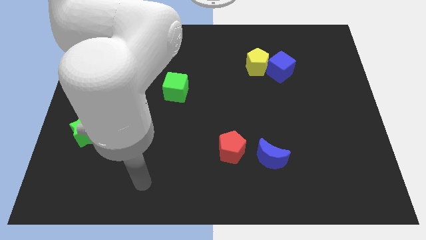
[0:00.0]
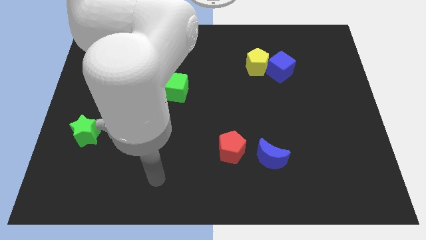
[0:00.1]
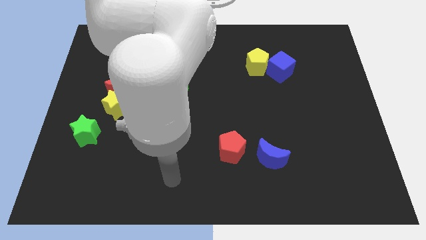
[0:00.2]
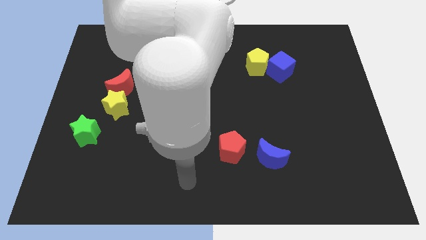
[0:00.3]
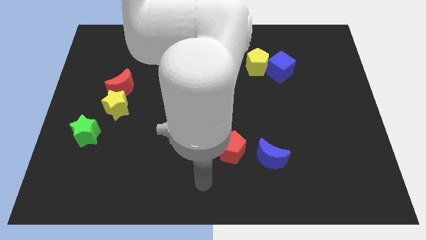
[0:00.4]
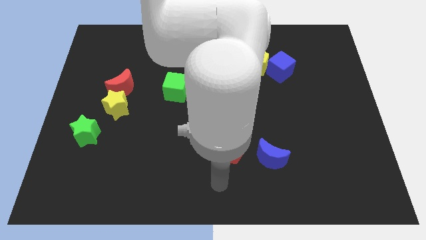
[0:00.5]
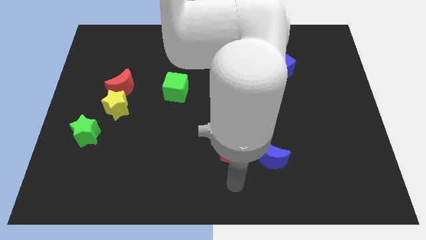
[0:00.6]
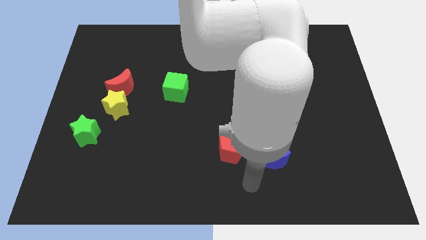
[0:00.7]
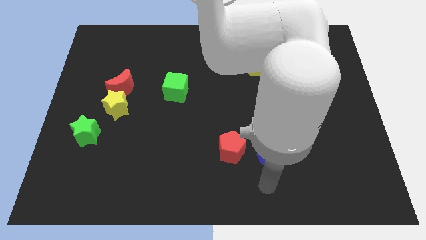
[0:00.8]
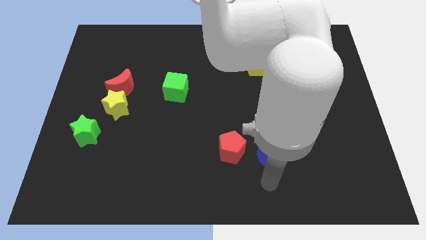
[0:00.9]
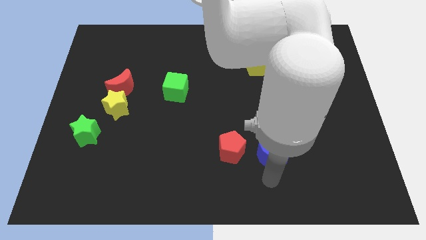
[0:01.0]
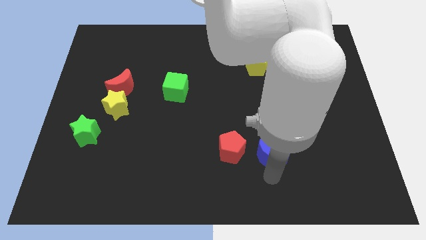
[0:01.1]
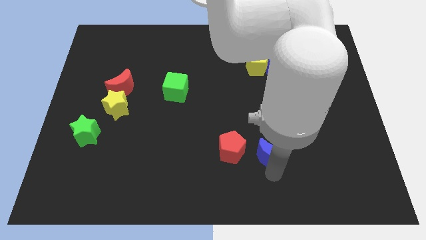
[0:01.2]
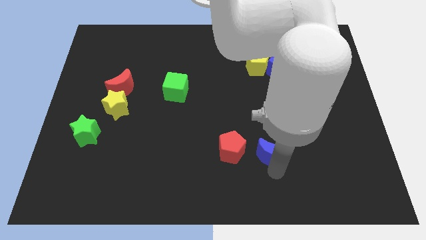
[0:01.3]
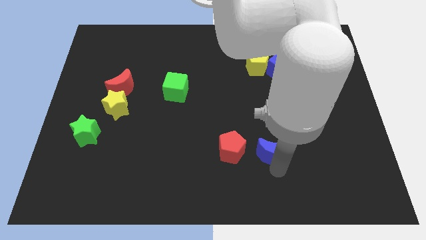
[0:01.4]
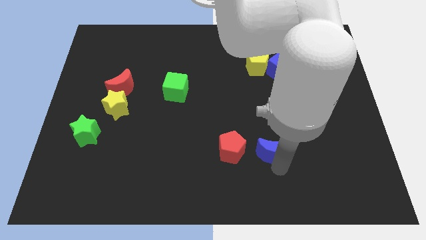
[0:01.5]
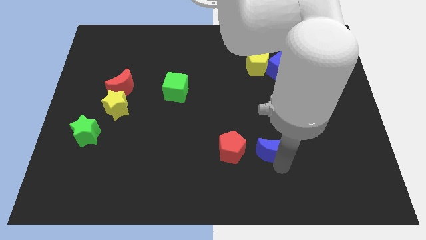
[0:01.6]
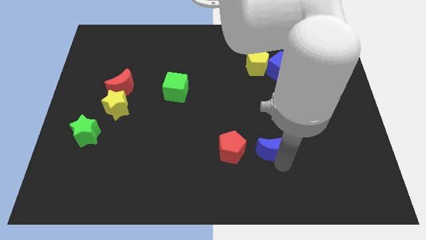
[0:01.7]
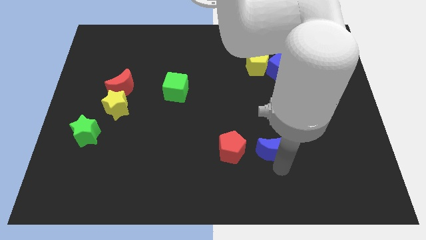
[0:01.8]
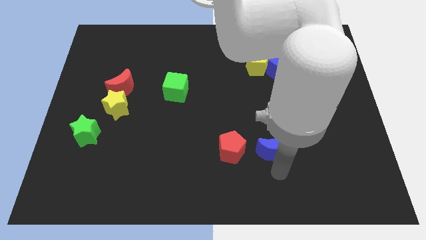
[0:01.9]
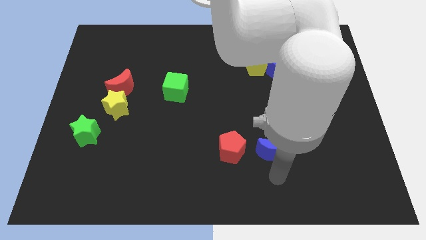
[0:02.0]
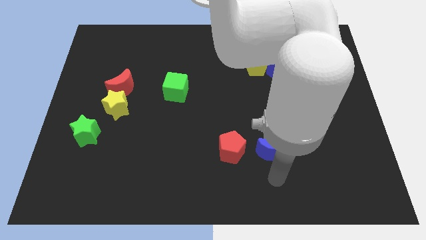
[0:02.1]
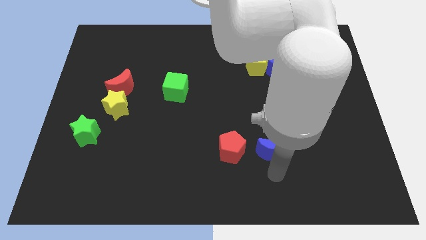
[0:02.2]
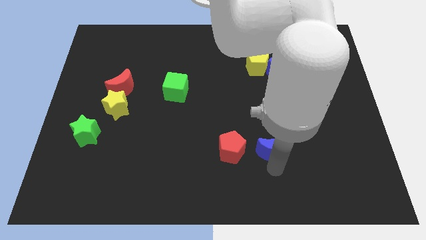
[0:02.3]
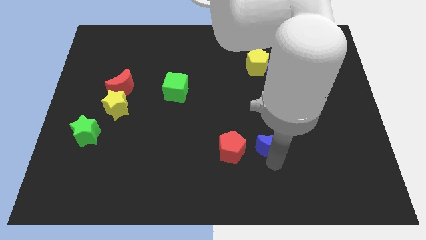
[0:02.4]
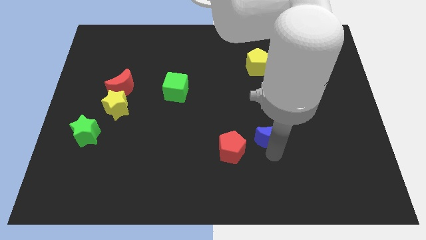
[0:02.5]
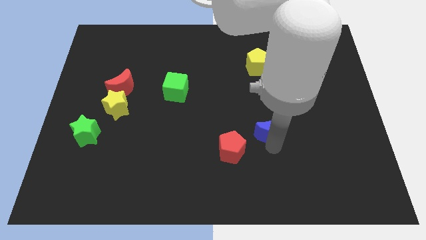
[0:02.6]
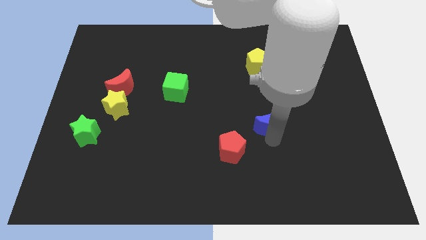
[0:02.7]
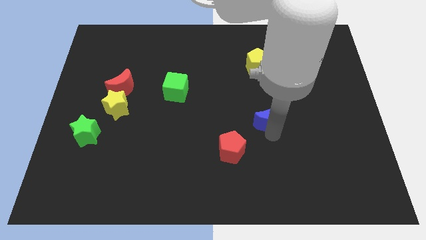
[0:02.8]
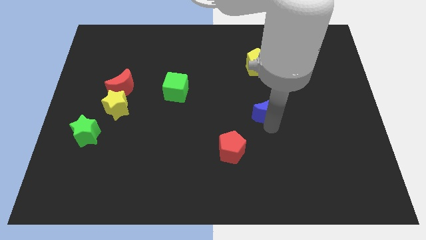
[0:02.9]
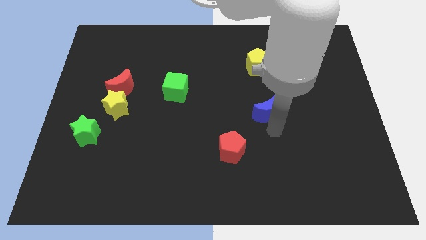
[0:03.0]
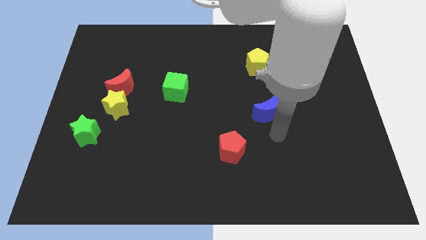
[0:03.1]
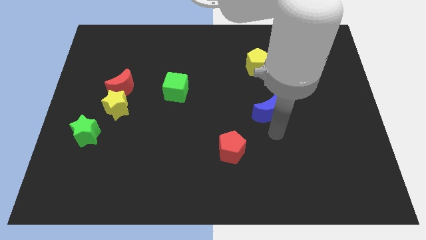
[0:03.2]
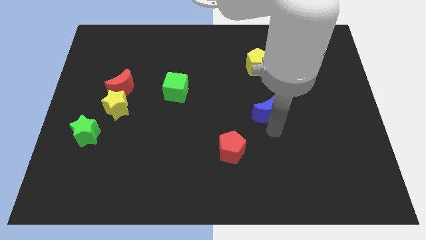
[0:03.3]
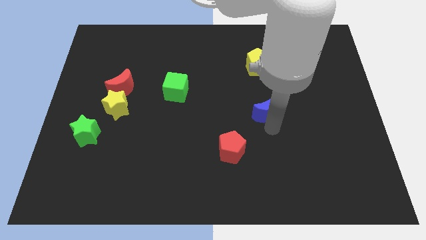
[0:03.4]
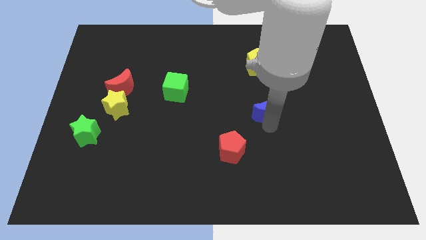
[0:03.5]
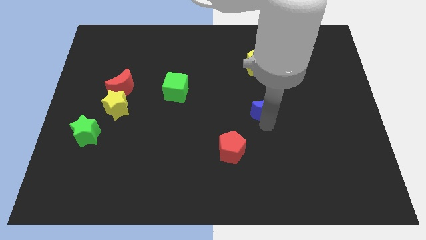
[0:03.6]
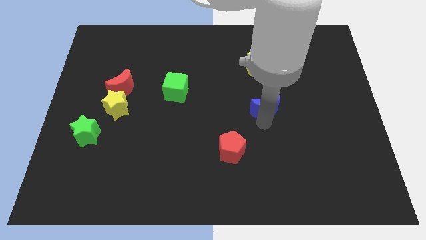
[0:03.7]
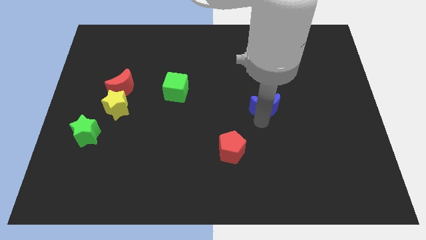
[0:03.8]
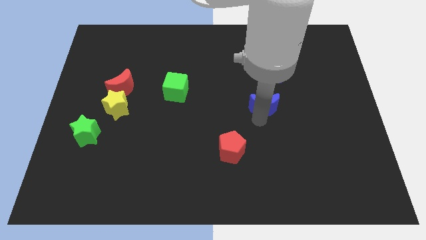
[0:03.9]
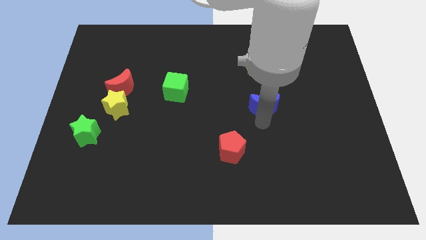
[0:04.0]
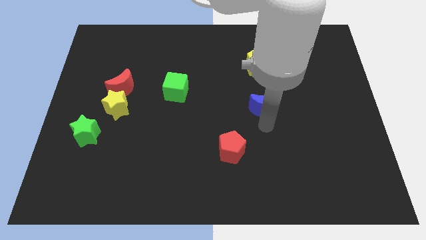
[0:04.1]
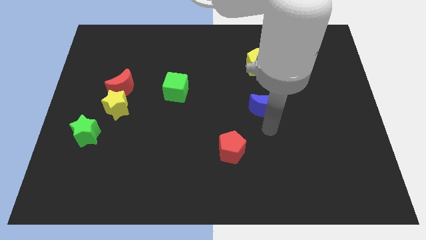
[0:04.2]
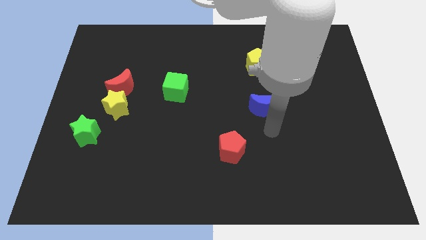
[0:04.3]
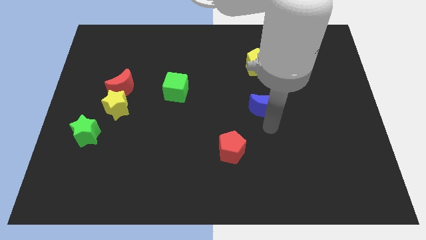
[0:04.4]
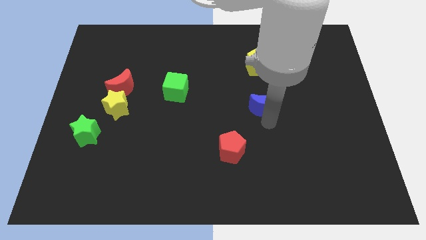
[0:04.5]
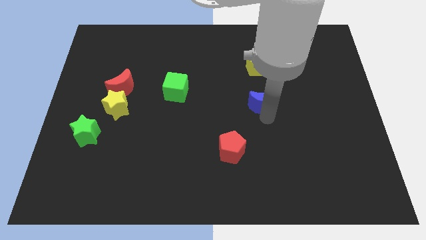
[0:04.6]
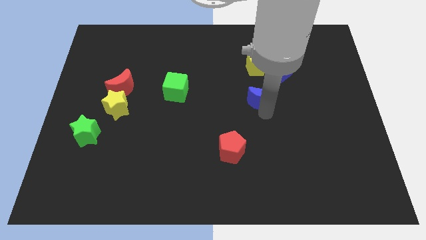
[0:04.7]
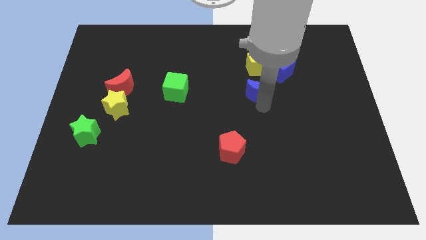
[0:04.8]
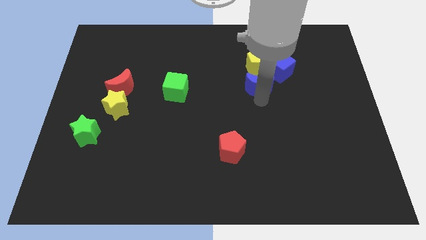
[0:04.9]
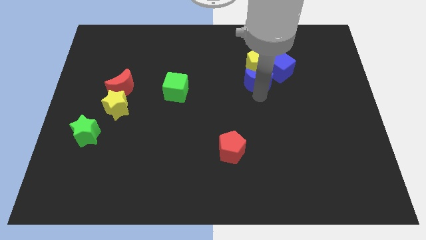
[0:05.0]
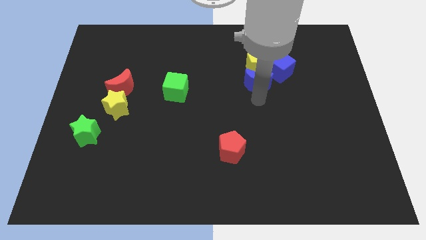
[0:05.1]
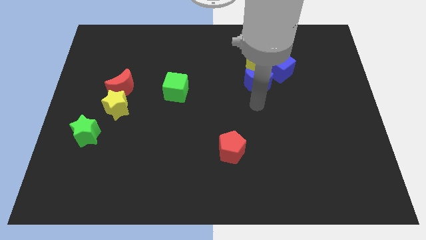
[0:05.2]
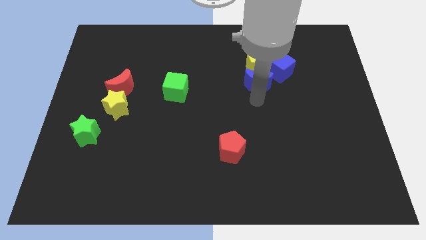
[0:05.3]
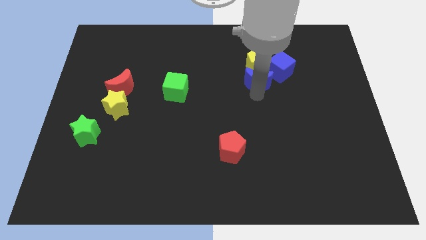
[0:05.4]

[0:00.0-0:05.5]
move the blue moon close to the yellow pentagon
